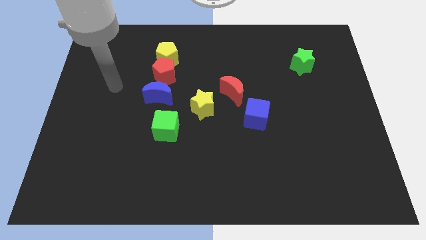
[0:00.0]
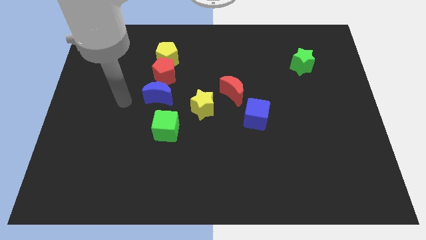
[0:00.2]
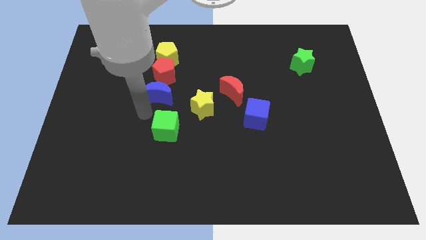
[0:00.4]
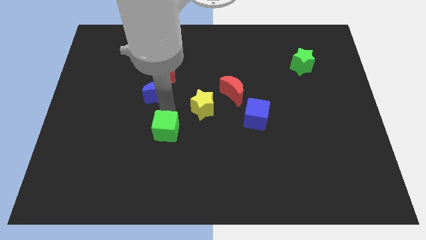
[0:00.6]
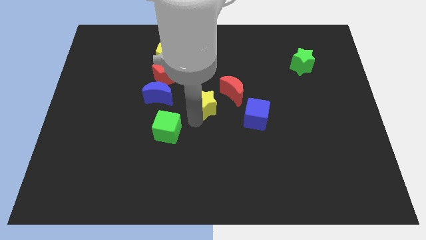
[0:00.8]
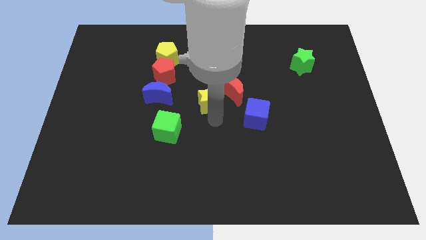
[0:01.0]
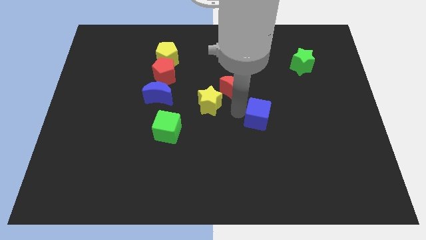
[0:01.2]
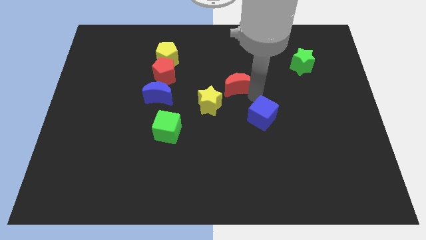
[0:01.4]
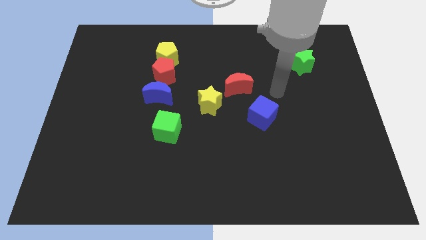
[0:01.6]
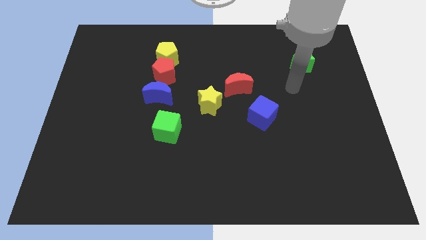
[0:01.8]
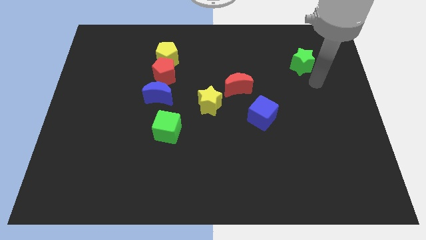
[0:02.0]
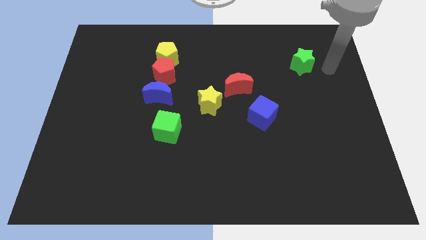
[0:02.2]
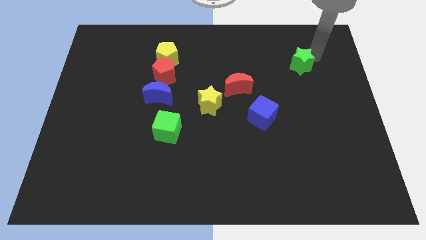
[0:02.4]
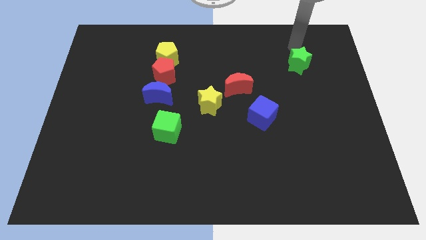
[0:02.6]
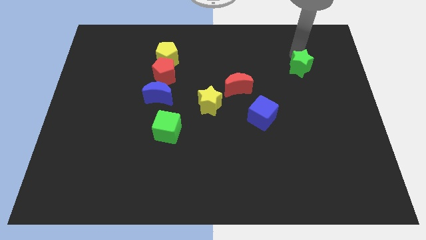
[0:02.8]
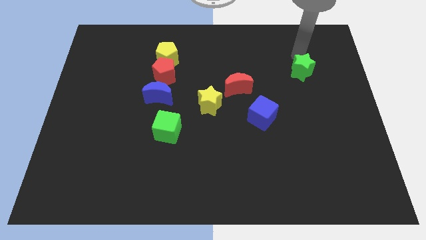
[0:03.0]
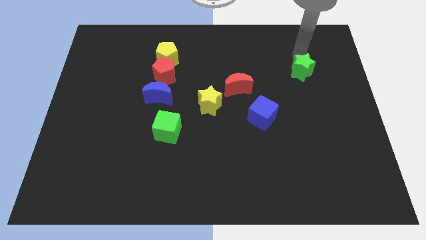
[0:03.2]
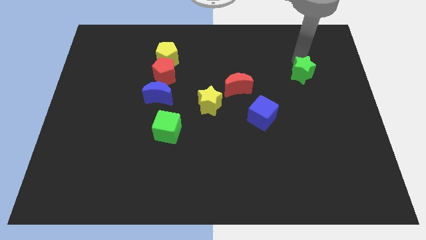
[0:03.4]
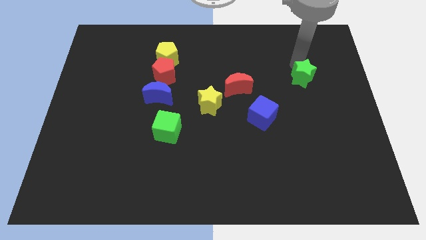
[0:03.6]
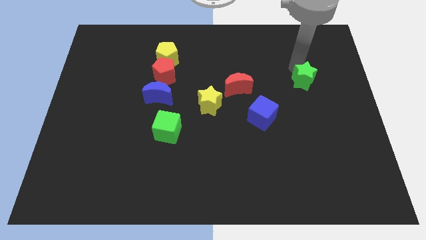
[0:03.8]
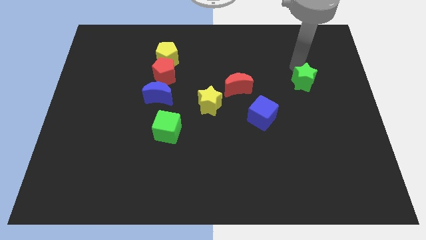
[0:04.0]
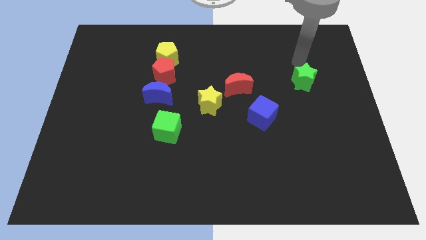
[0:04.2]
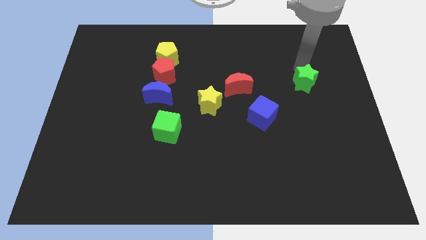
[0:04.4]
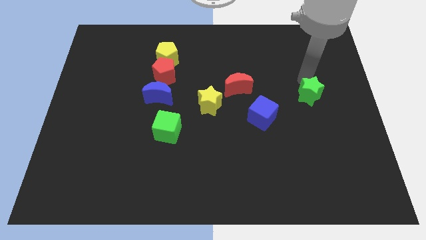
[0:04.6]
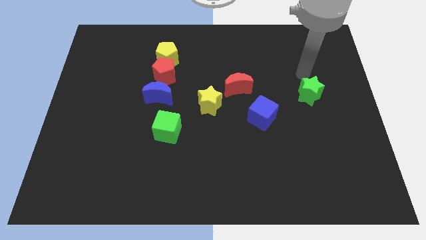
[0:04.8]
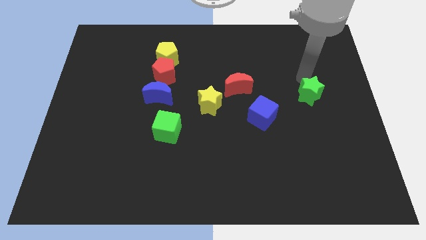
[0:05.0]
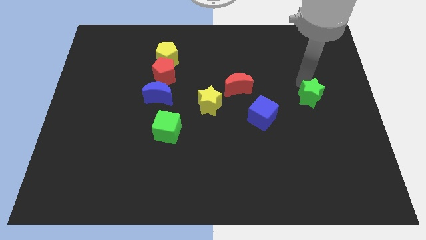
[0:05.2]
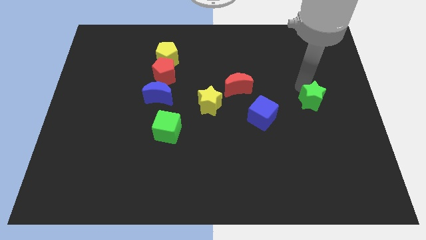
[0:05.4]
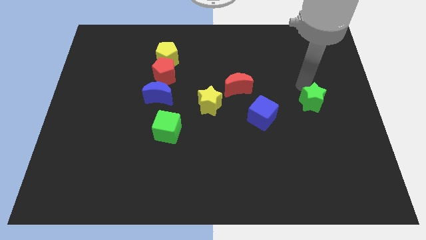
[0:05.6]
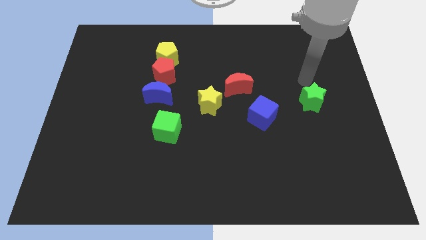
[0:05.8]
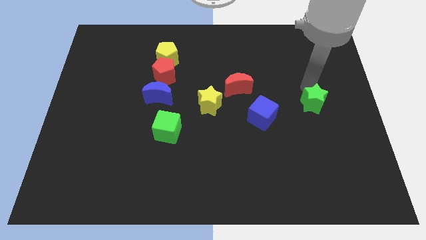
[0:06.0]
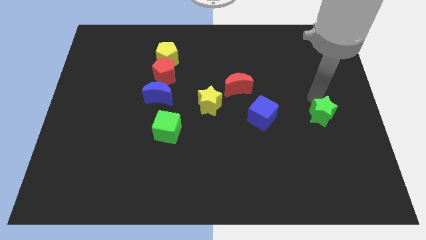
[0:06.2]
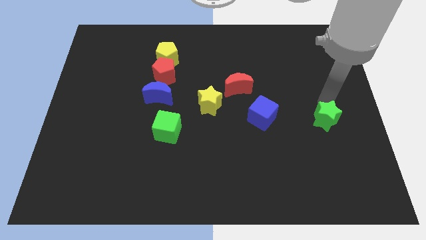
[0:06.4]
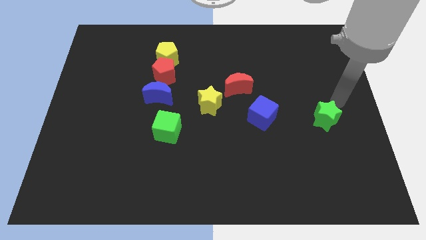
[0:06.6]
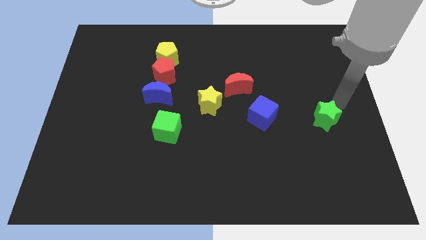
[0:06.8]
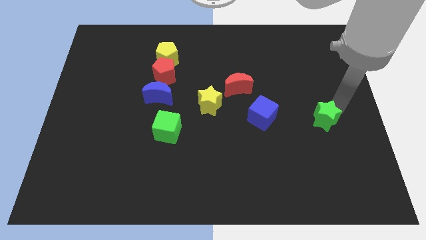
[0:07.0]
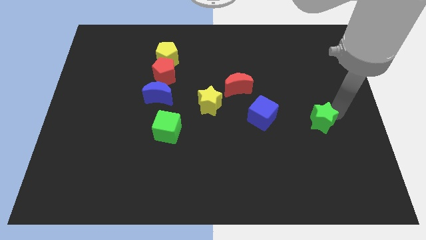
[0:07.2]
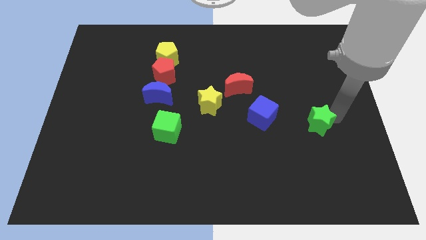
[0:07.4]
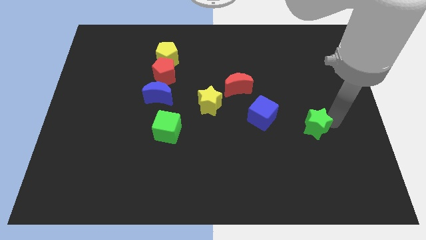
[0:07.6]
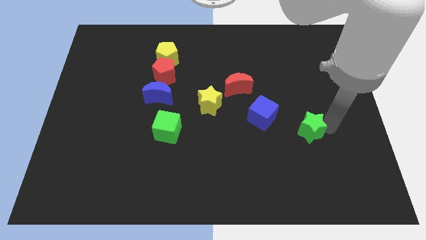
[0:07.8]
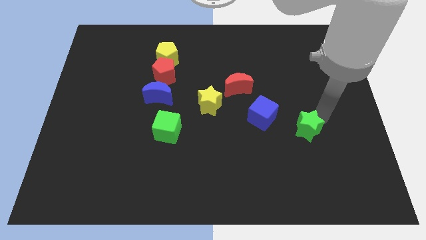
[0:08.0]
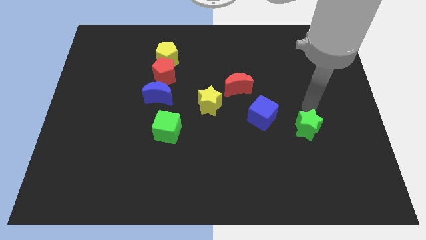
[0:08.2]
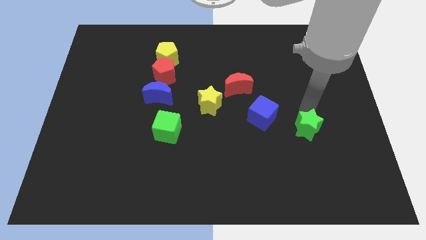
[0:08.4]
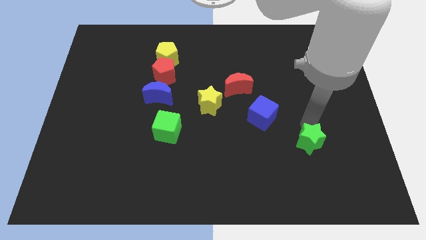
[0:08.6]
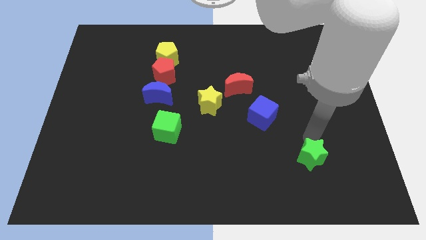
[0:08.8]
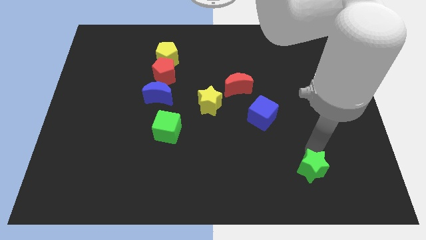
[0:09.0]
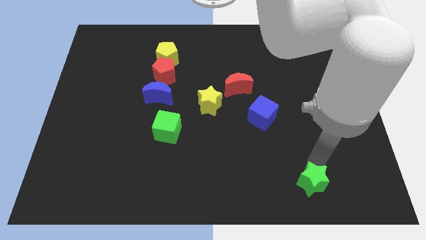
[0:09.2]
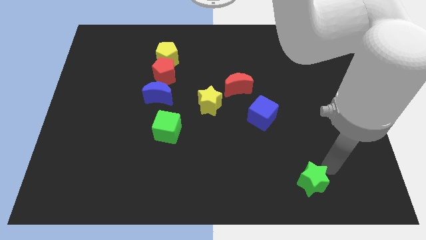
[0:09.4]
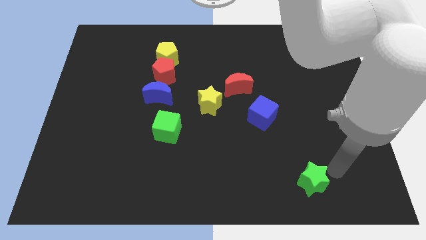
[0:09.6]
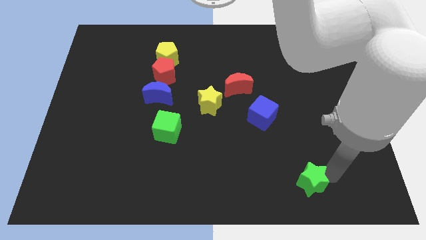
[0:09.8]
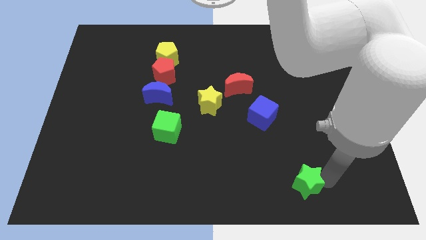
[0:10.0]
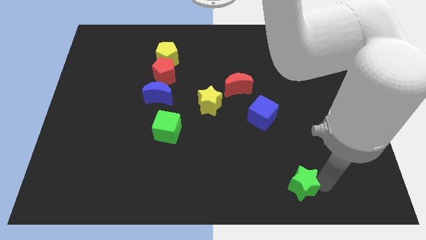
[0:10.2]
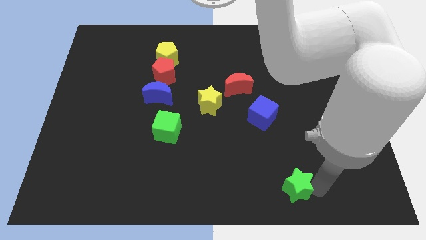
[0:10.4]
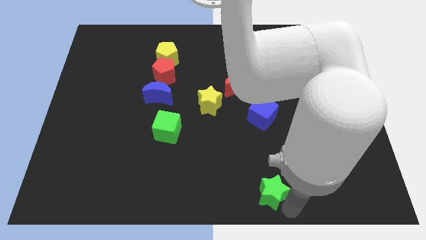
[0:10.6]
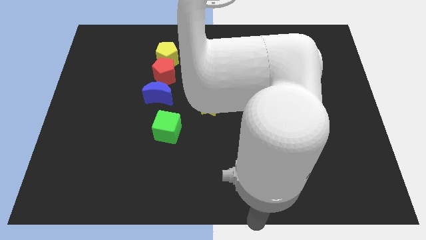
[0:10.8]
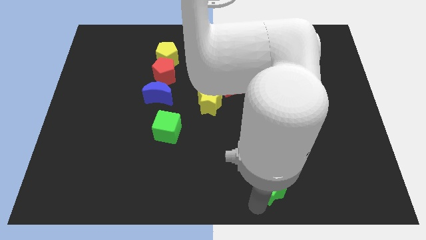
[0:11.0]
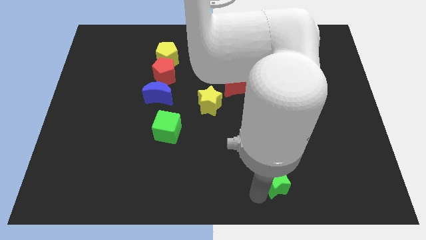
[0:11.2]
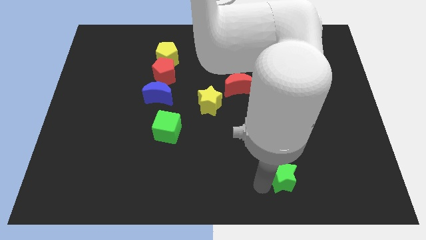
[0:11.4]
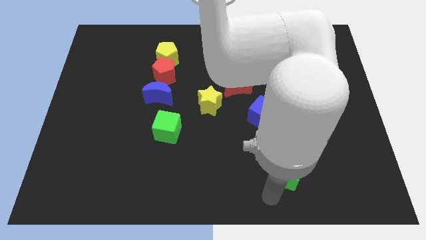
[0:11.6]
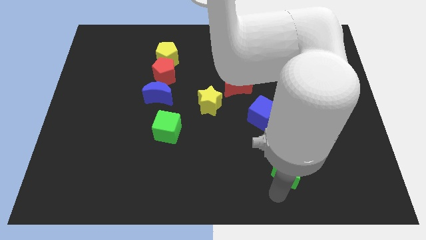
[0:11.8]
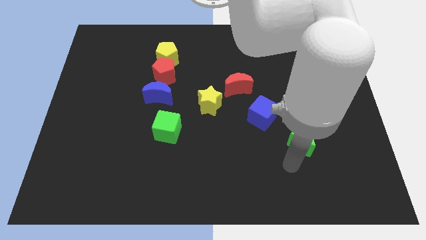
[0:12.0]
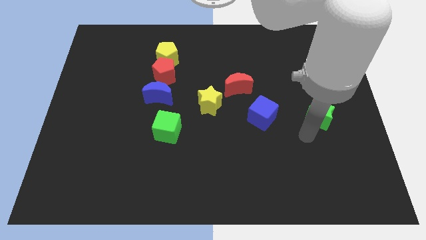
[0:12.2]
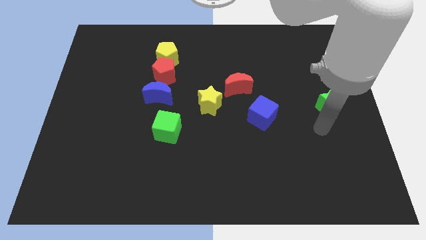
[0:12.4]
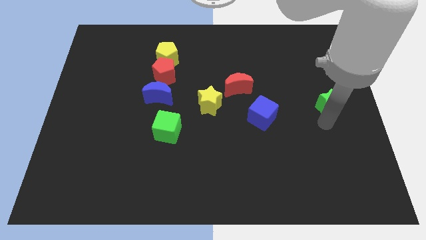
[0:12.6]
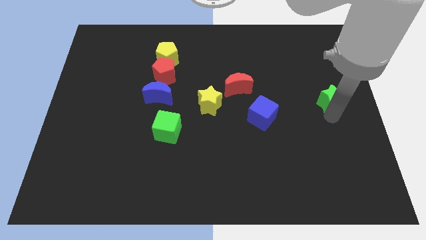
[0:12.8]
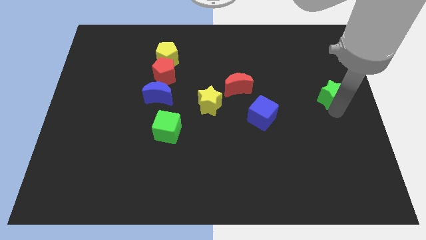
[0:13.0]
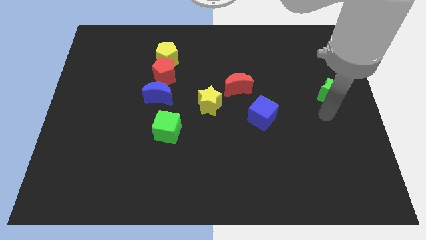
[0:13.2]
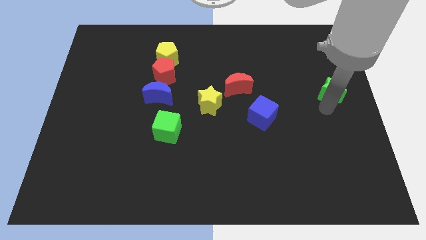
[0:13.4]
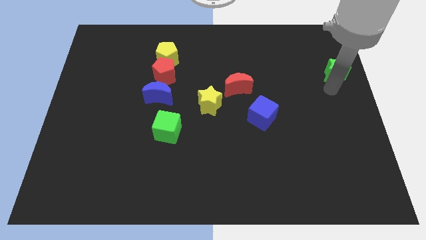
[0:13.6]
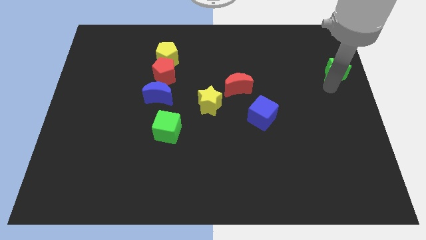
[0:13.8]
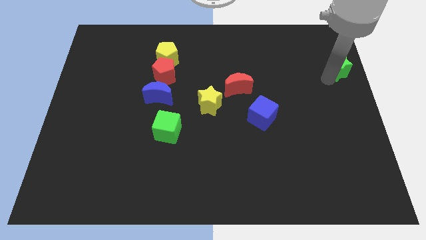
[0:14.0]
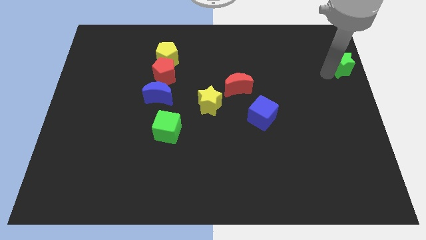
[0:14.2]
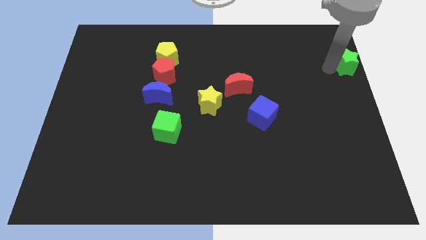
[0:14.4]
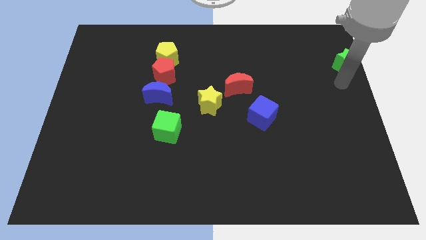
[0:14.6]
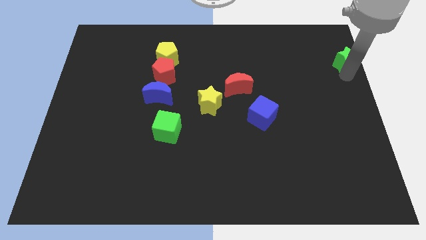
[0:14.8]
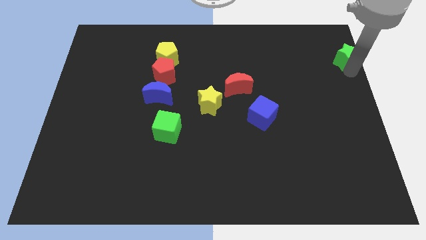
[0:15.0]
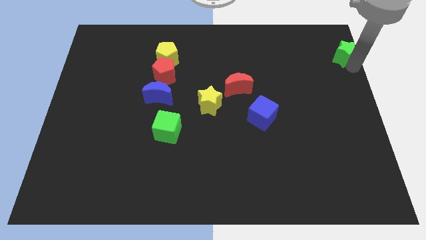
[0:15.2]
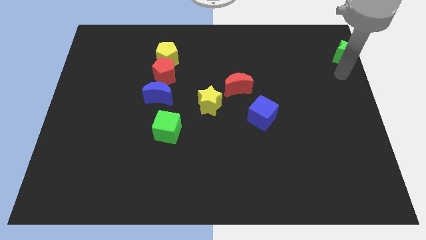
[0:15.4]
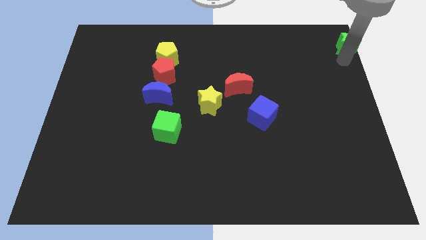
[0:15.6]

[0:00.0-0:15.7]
push the green star to the upper right corner
